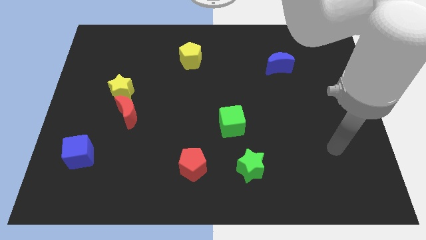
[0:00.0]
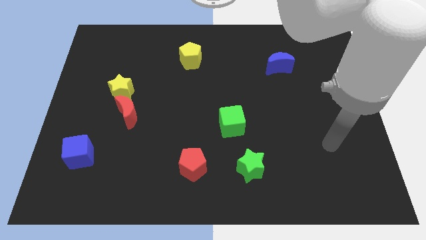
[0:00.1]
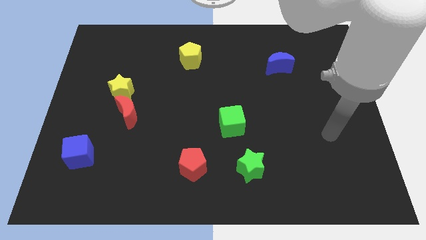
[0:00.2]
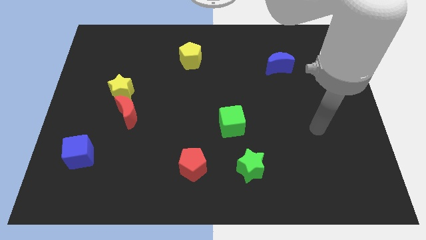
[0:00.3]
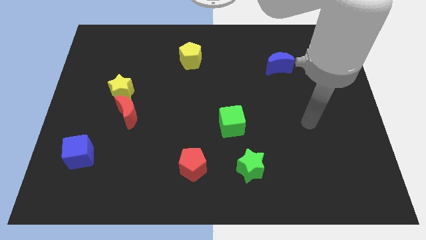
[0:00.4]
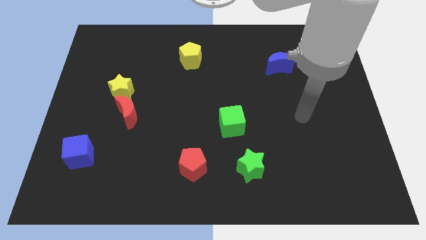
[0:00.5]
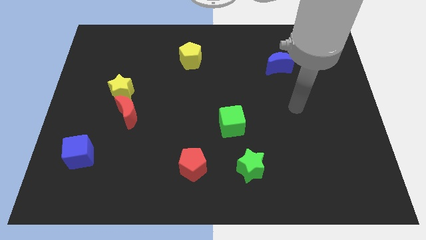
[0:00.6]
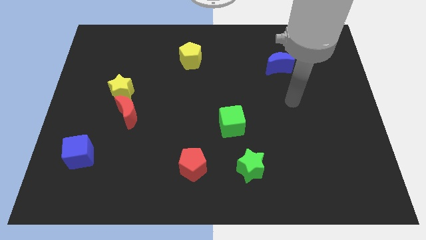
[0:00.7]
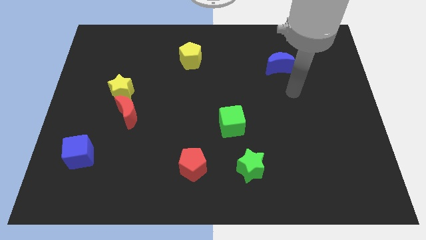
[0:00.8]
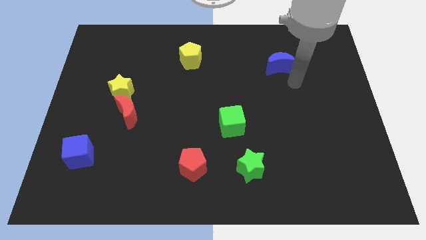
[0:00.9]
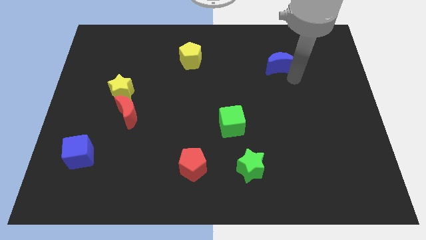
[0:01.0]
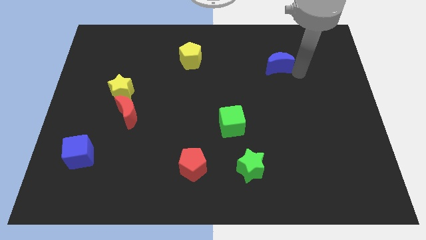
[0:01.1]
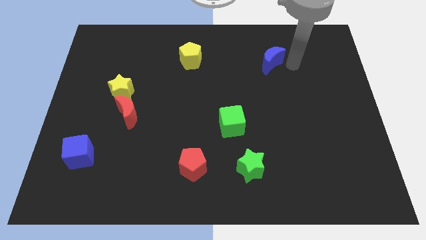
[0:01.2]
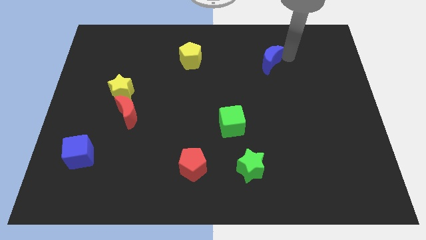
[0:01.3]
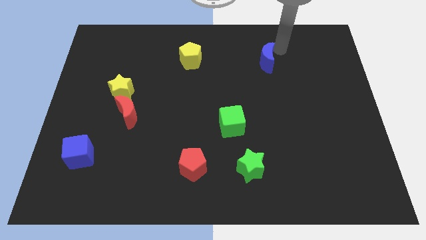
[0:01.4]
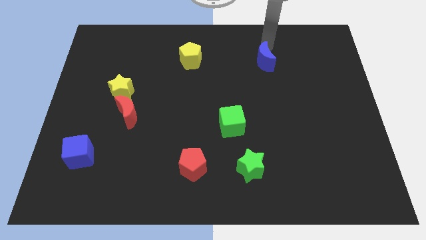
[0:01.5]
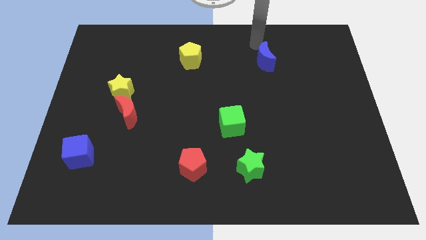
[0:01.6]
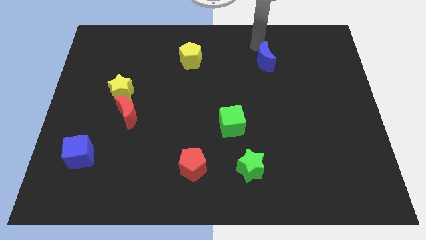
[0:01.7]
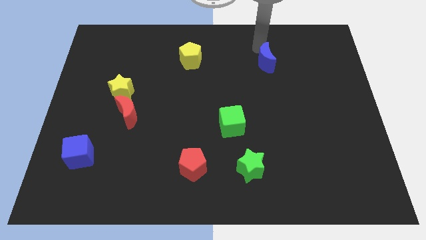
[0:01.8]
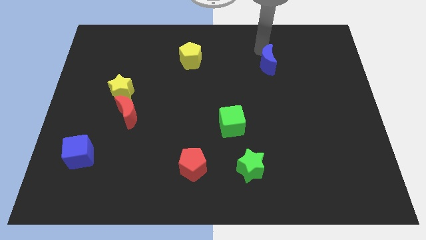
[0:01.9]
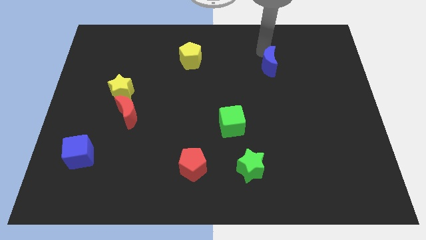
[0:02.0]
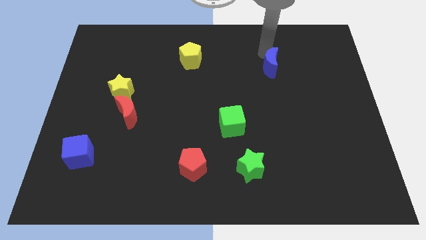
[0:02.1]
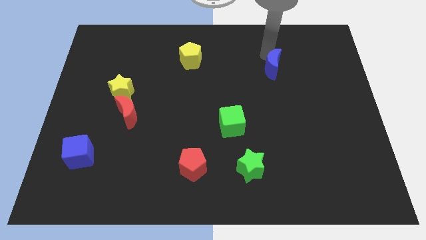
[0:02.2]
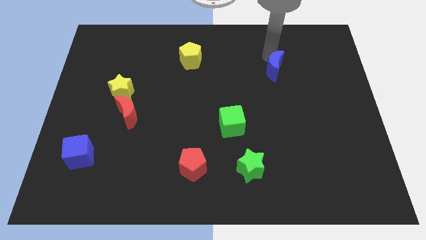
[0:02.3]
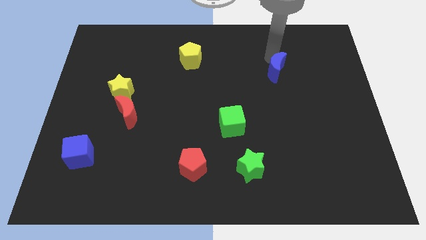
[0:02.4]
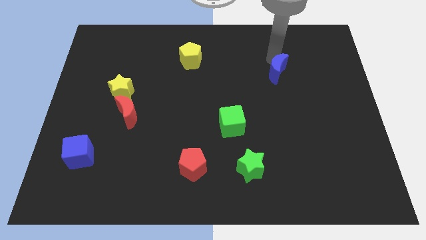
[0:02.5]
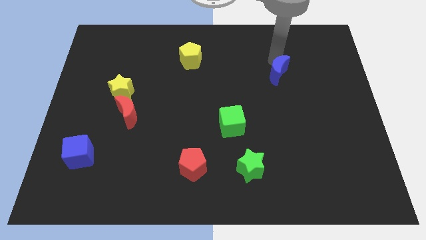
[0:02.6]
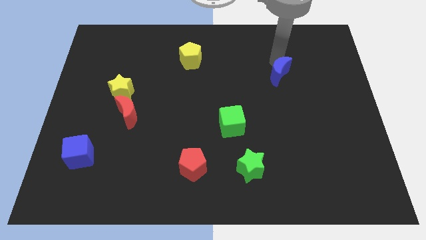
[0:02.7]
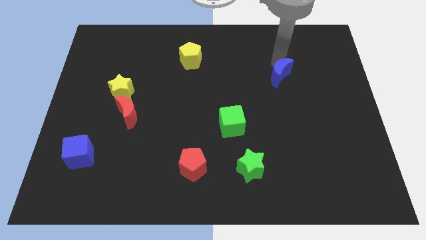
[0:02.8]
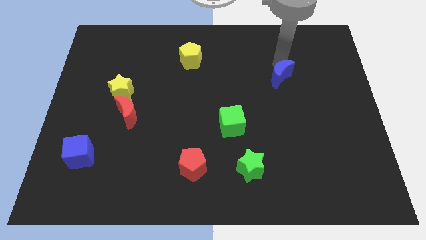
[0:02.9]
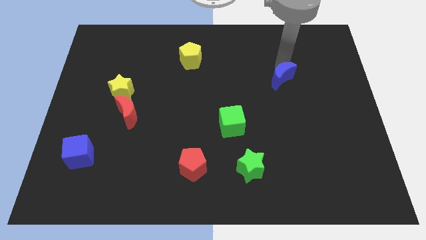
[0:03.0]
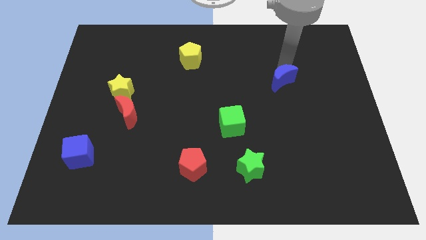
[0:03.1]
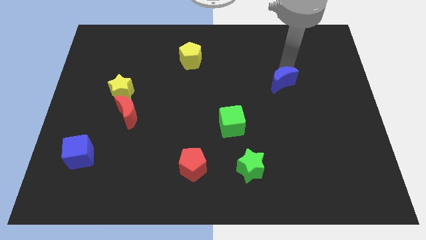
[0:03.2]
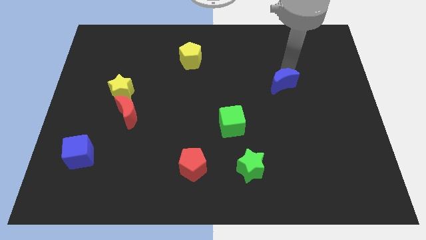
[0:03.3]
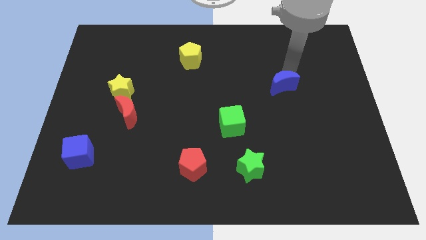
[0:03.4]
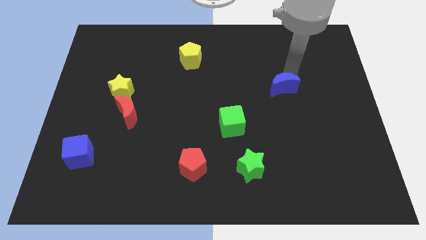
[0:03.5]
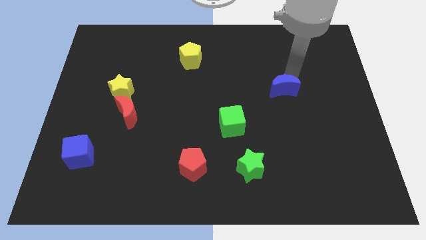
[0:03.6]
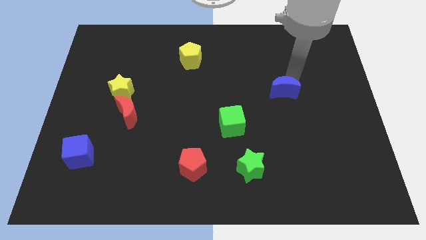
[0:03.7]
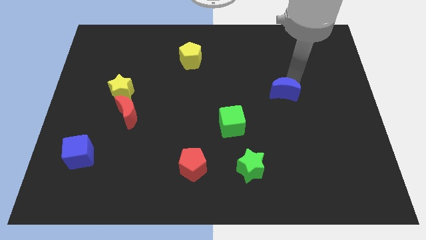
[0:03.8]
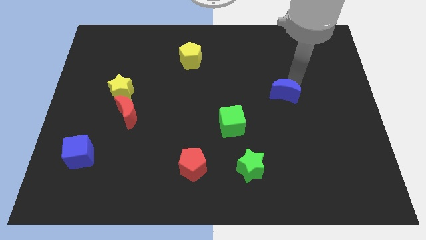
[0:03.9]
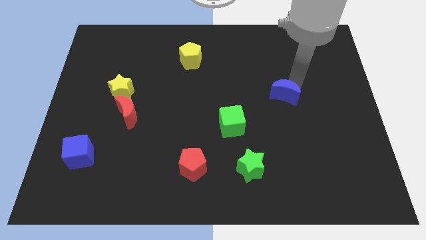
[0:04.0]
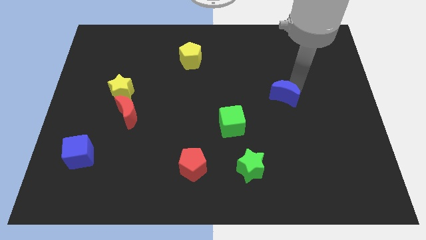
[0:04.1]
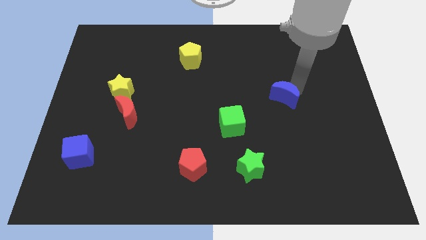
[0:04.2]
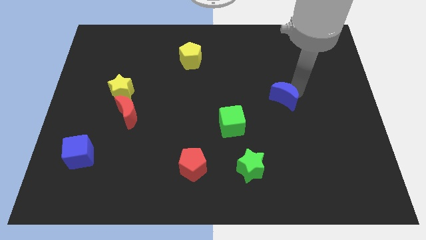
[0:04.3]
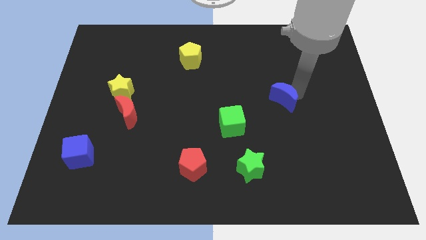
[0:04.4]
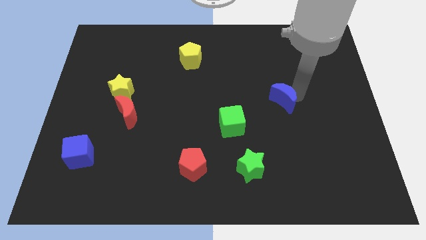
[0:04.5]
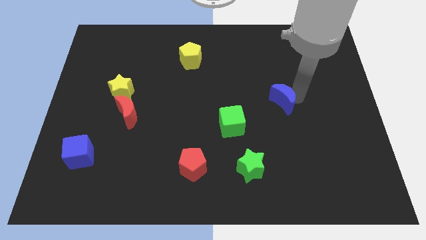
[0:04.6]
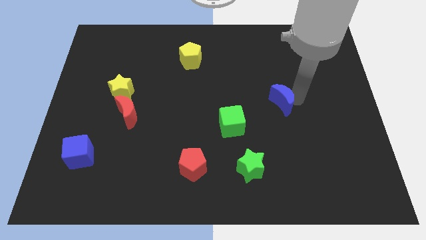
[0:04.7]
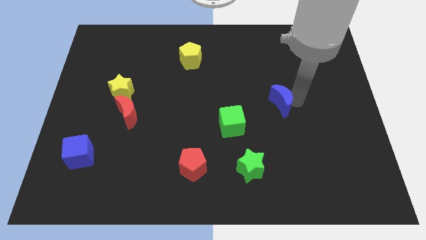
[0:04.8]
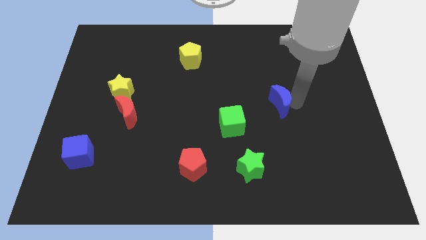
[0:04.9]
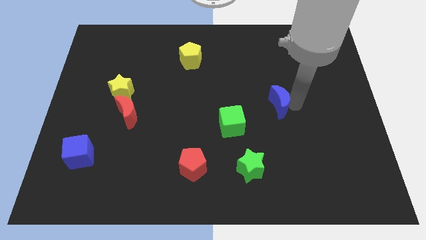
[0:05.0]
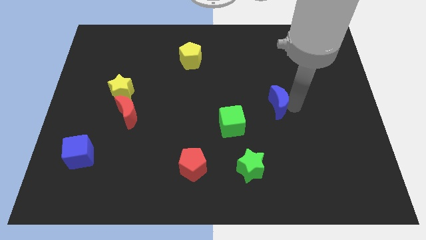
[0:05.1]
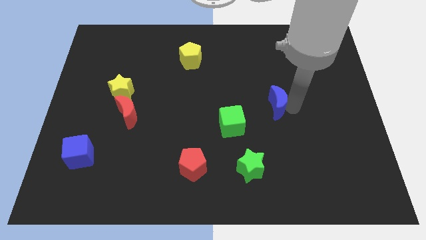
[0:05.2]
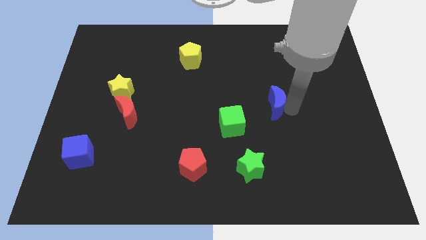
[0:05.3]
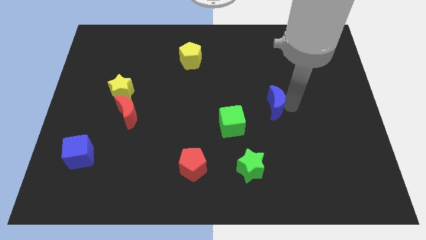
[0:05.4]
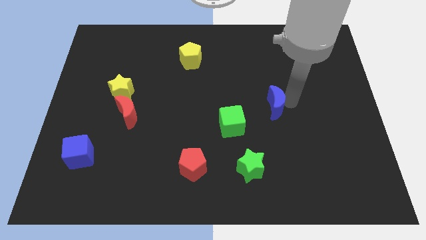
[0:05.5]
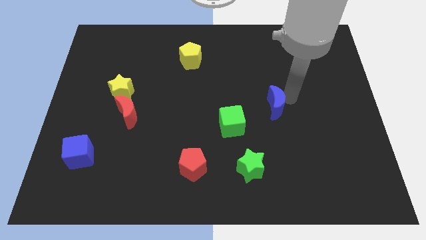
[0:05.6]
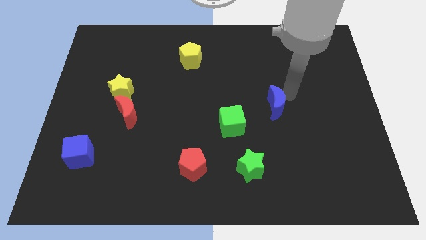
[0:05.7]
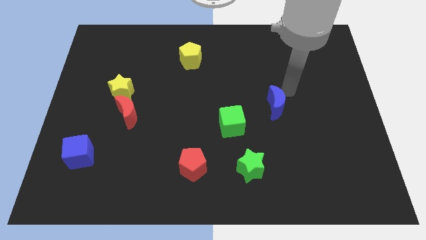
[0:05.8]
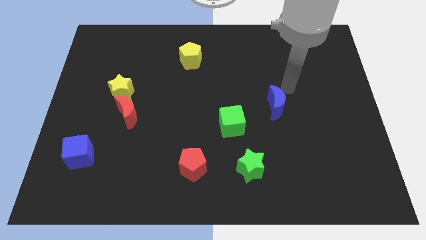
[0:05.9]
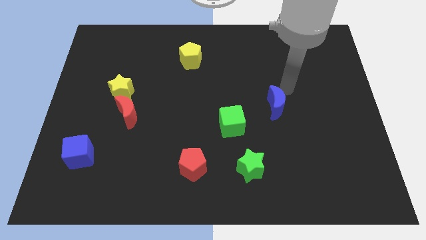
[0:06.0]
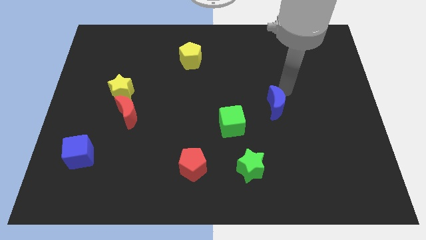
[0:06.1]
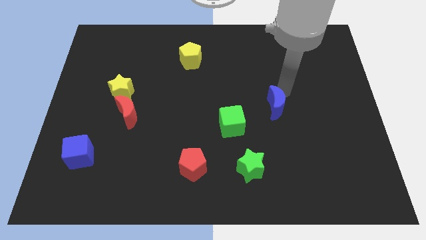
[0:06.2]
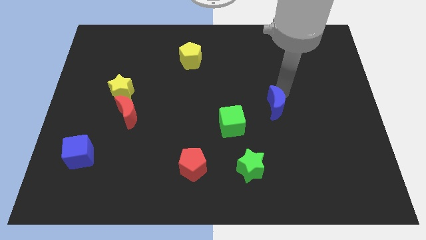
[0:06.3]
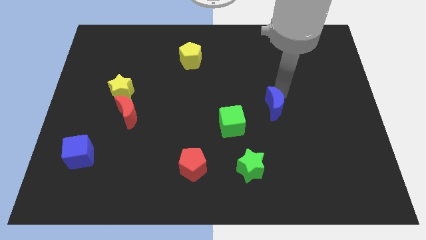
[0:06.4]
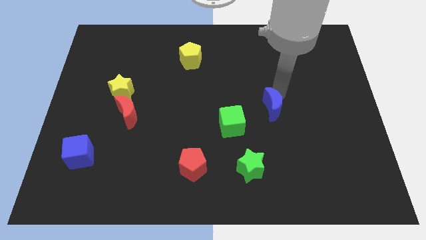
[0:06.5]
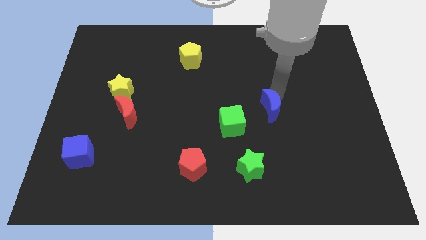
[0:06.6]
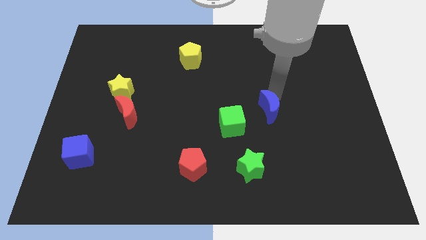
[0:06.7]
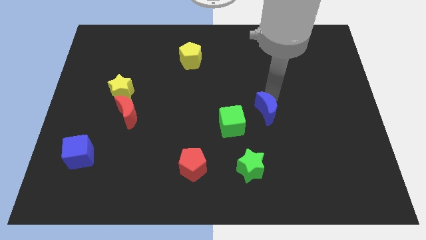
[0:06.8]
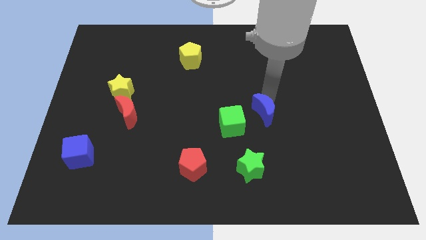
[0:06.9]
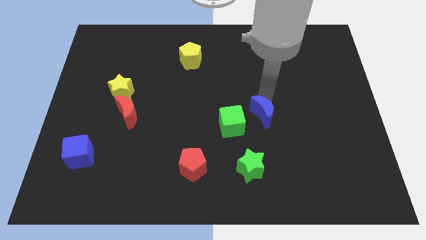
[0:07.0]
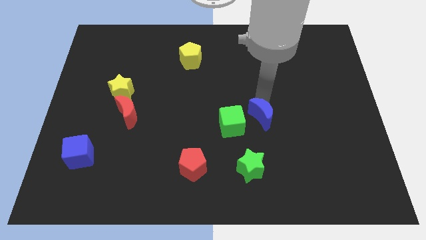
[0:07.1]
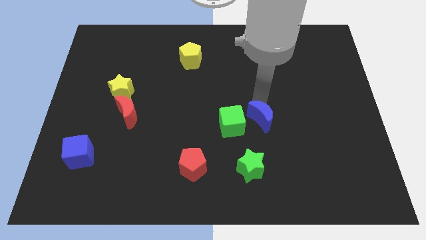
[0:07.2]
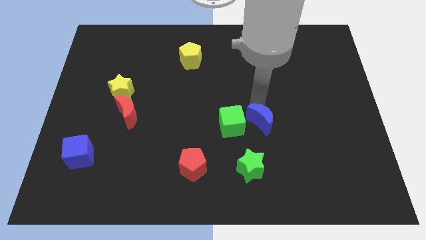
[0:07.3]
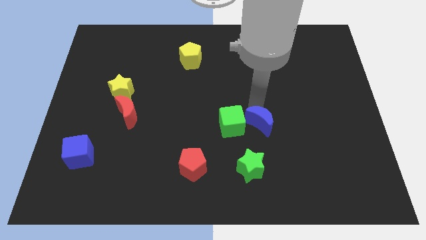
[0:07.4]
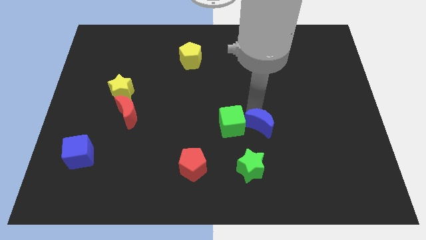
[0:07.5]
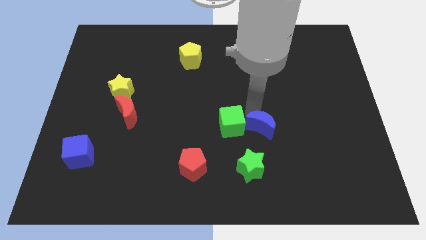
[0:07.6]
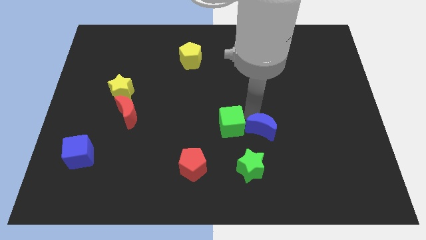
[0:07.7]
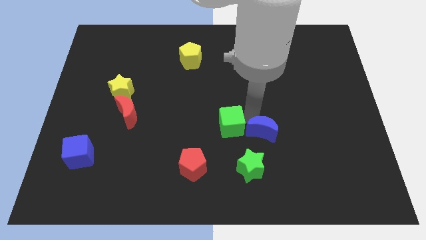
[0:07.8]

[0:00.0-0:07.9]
push the blue moon to the top right of the green star
